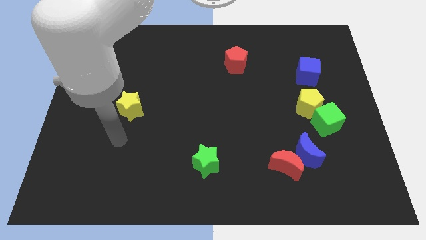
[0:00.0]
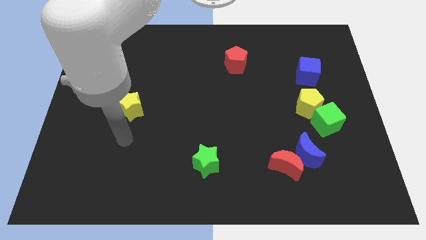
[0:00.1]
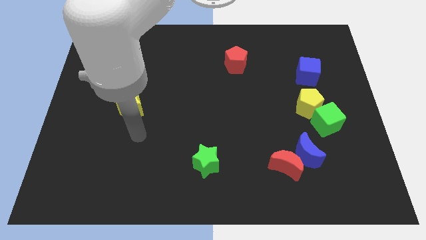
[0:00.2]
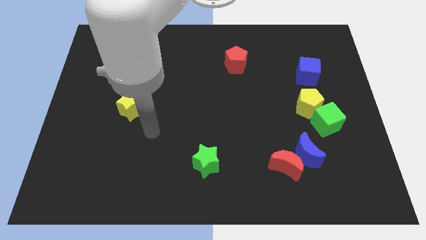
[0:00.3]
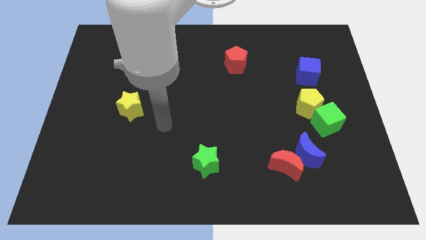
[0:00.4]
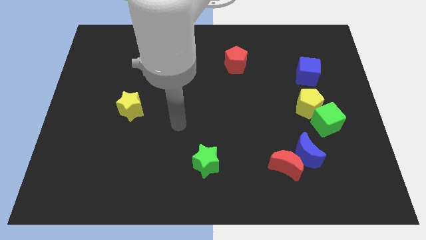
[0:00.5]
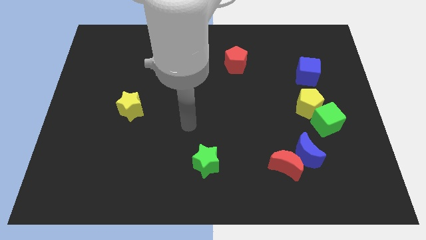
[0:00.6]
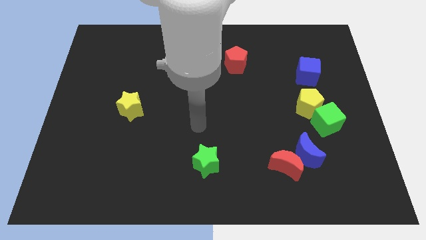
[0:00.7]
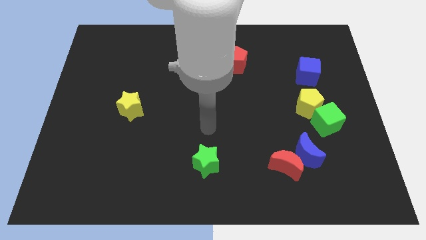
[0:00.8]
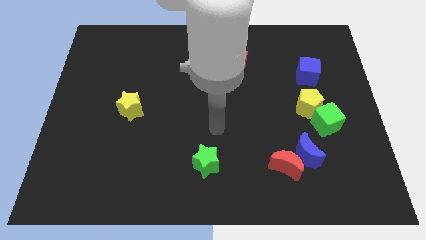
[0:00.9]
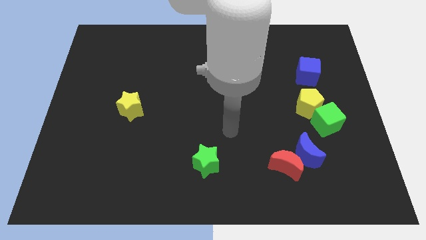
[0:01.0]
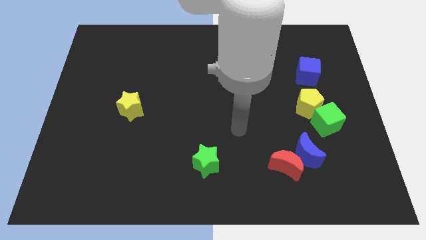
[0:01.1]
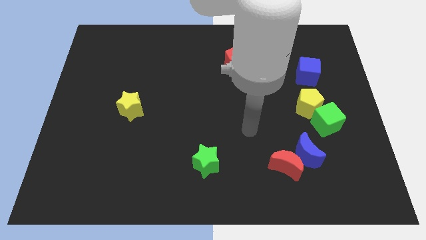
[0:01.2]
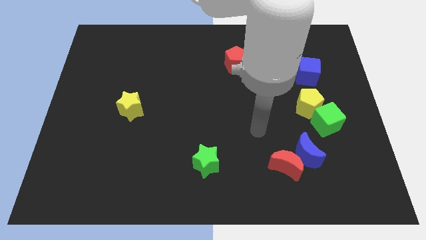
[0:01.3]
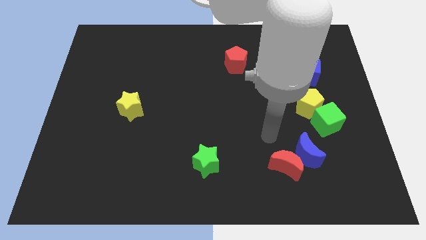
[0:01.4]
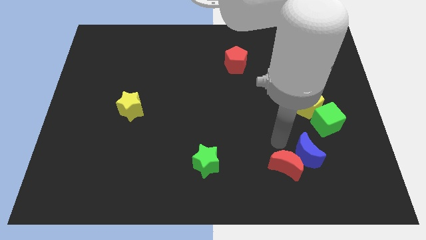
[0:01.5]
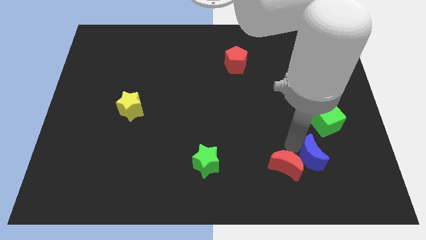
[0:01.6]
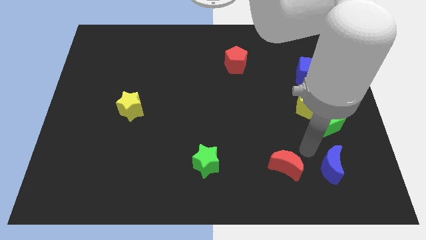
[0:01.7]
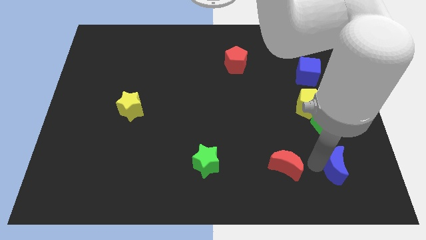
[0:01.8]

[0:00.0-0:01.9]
move the red moon away from the blue moon

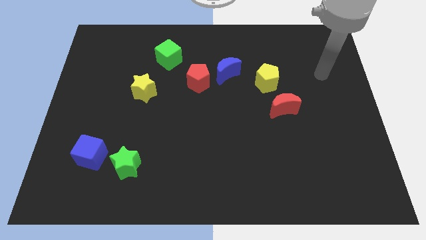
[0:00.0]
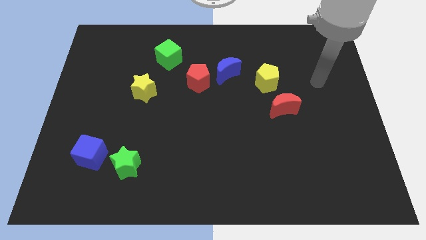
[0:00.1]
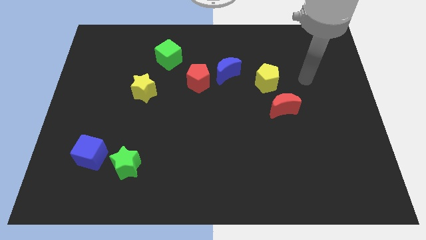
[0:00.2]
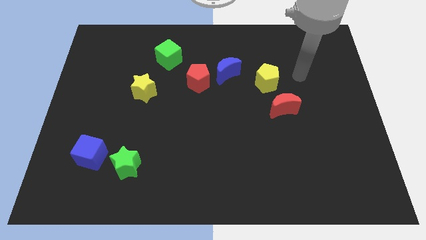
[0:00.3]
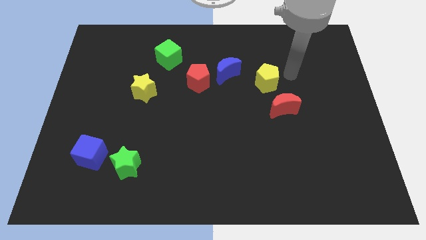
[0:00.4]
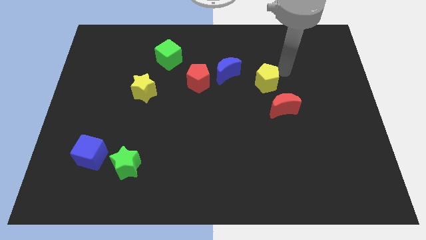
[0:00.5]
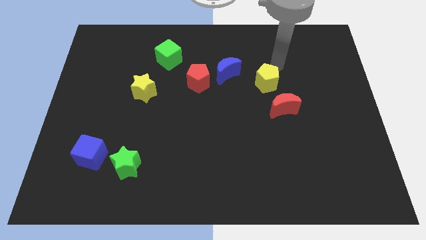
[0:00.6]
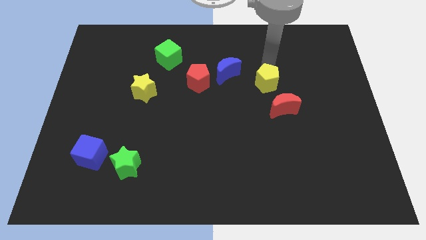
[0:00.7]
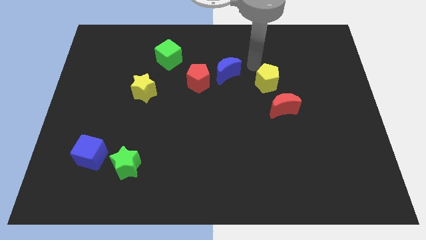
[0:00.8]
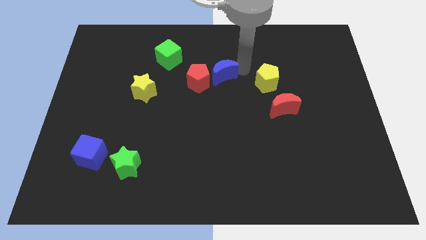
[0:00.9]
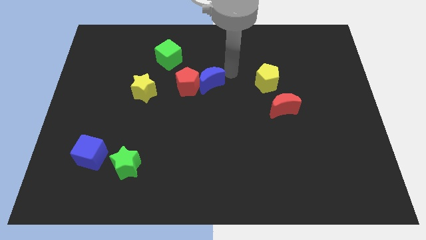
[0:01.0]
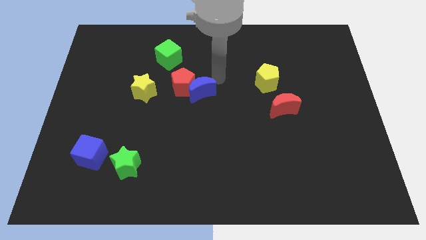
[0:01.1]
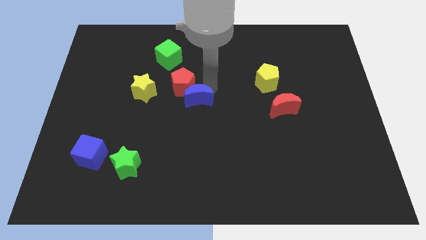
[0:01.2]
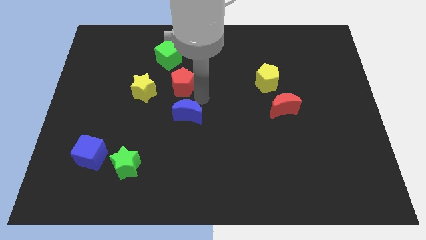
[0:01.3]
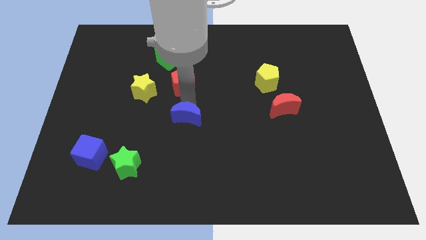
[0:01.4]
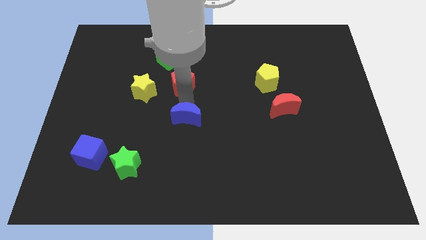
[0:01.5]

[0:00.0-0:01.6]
separate the red pentagon from the blue moon

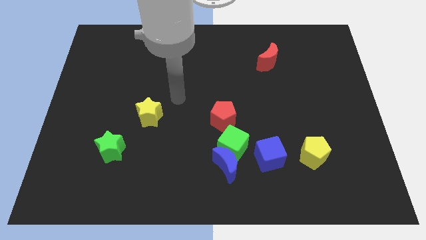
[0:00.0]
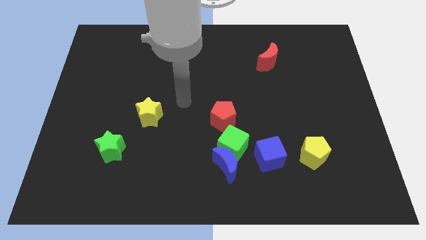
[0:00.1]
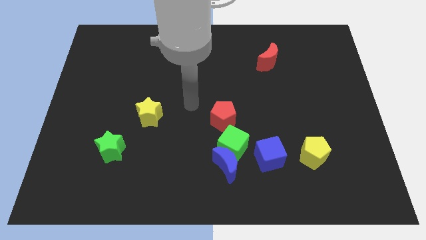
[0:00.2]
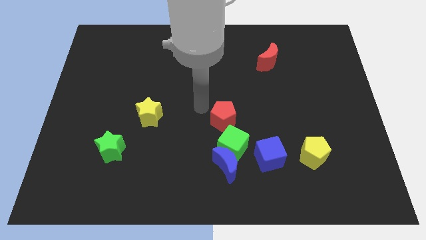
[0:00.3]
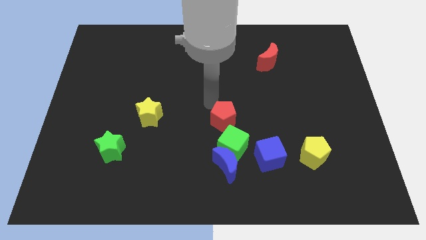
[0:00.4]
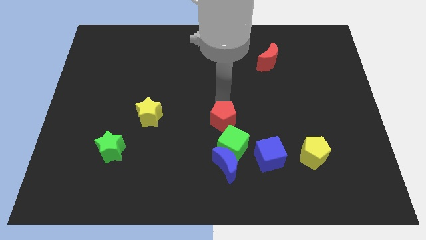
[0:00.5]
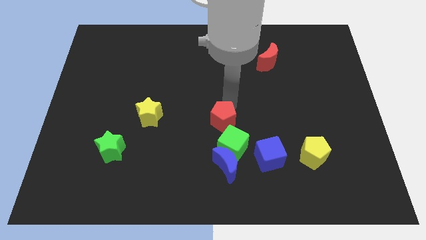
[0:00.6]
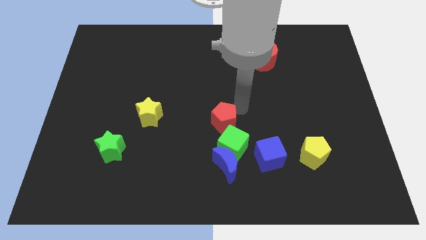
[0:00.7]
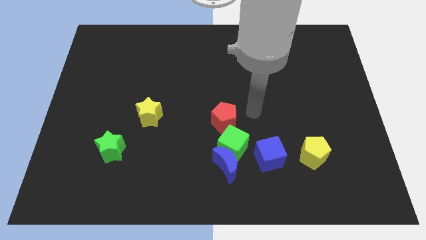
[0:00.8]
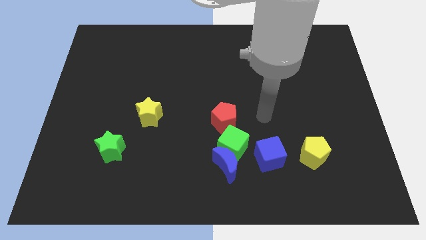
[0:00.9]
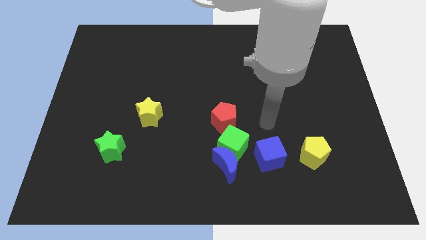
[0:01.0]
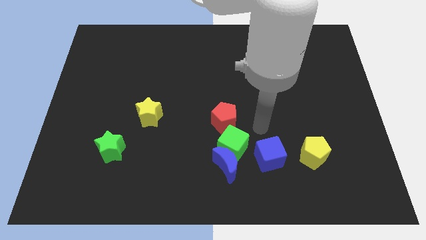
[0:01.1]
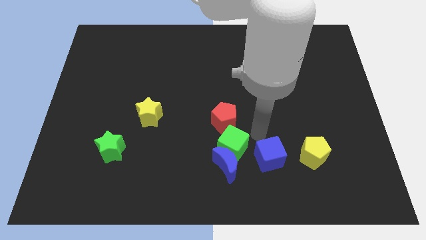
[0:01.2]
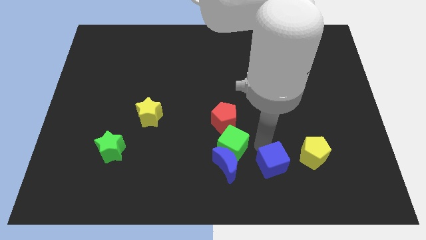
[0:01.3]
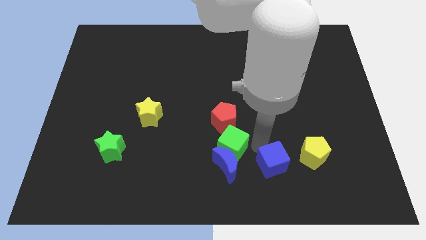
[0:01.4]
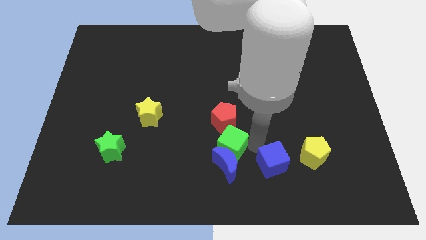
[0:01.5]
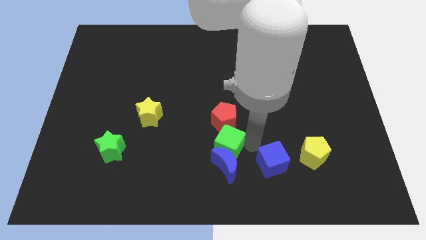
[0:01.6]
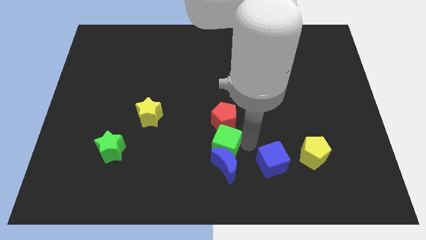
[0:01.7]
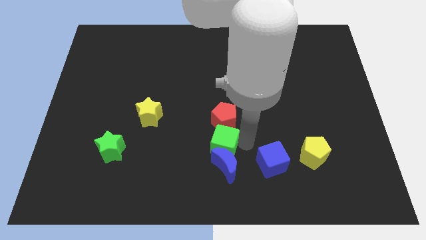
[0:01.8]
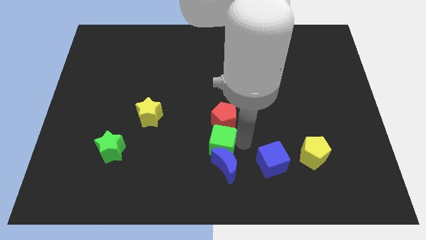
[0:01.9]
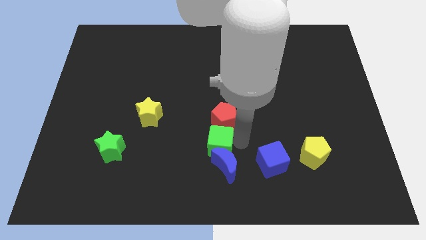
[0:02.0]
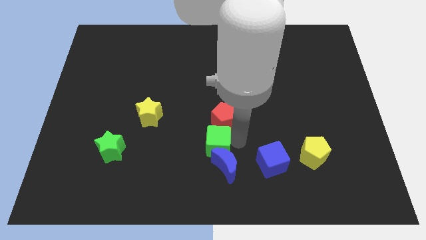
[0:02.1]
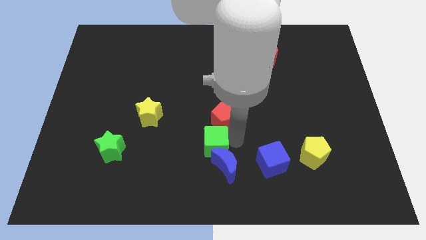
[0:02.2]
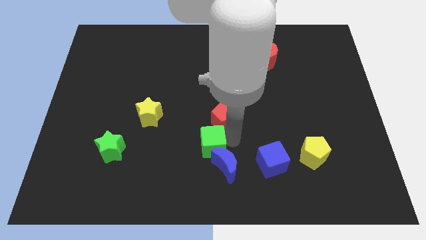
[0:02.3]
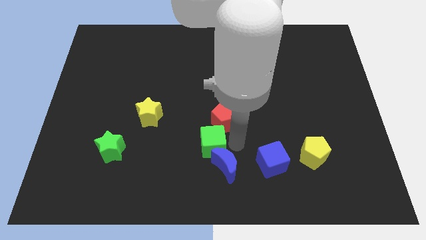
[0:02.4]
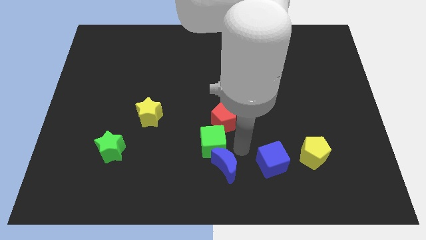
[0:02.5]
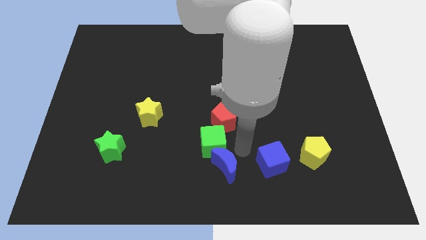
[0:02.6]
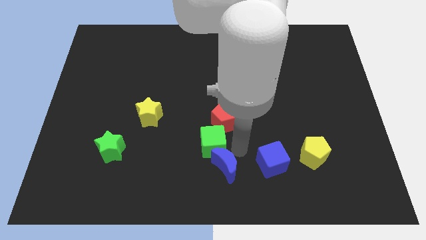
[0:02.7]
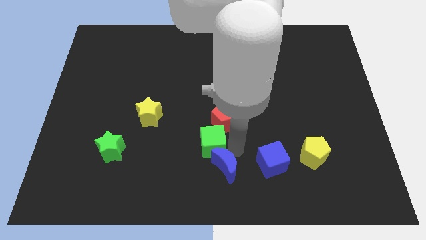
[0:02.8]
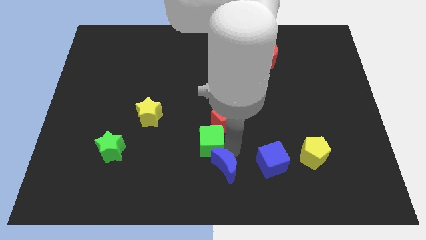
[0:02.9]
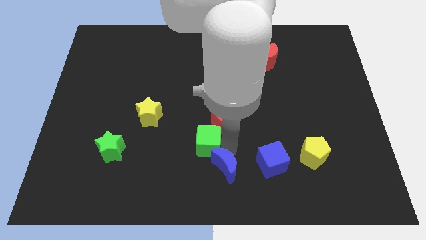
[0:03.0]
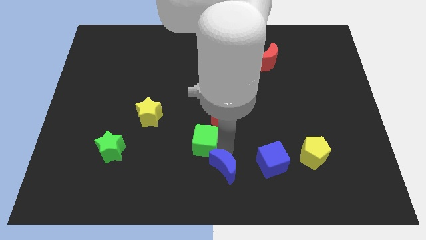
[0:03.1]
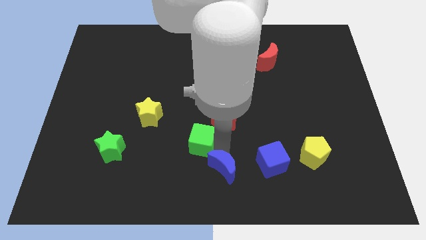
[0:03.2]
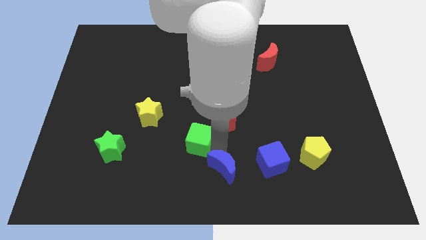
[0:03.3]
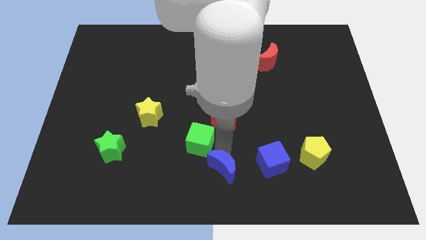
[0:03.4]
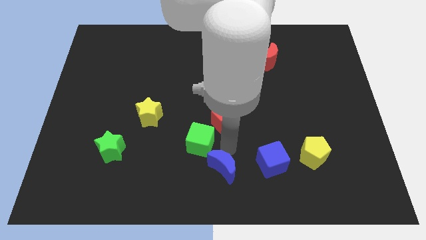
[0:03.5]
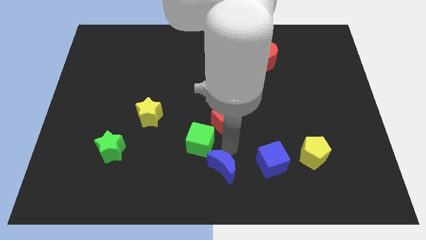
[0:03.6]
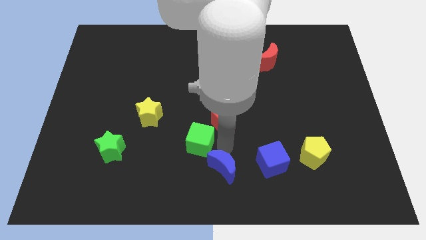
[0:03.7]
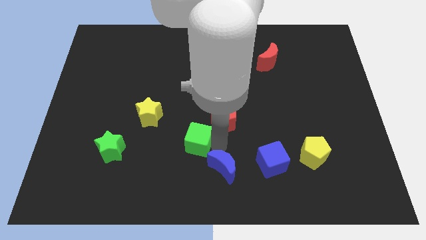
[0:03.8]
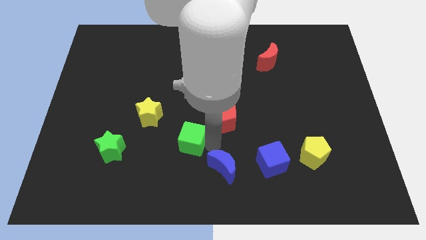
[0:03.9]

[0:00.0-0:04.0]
pull the green cube apart from the group of blocks

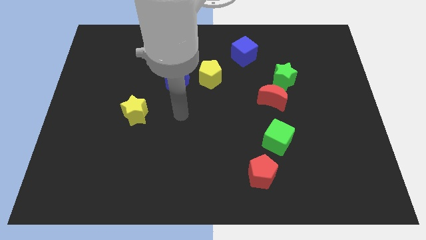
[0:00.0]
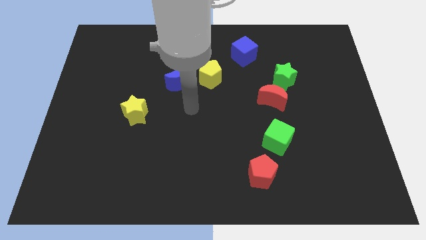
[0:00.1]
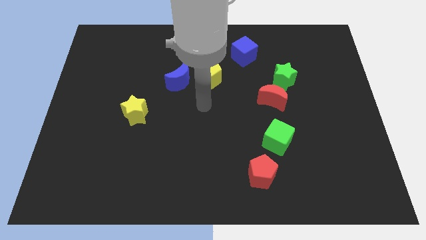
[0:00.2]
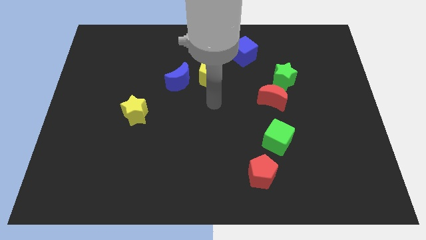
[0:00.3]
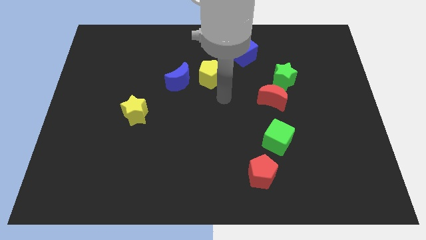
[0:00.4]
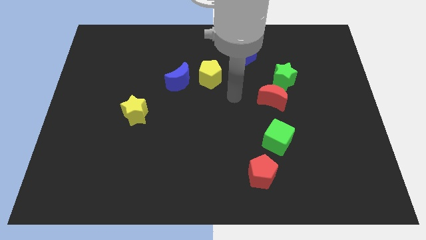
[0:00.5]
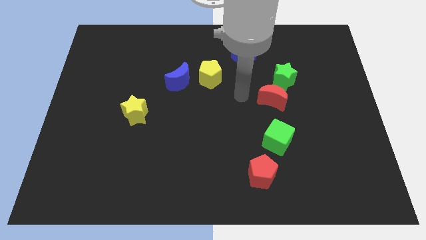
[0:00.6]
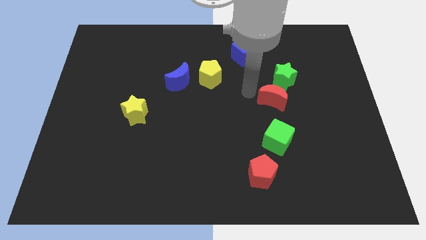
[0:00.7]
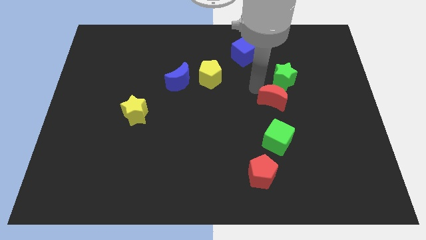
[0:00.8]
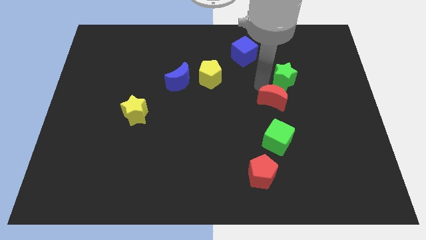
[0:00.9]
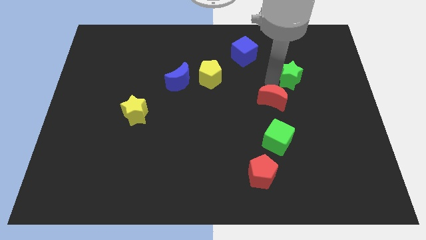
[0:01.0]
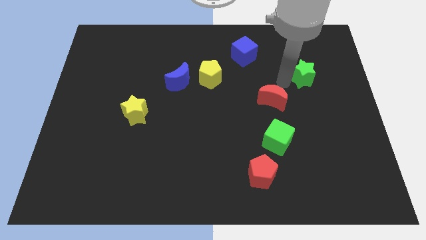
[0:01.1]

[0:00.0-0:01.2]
move the red moon away from the green star

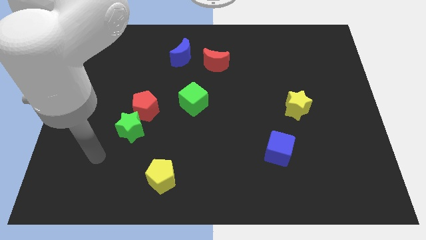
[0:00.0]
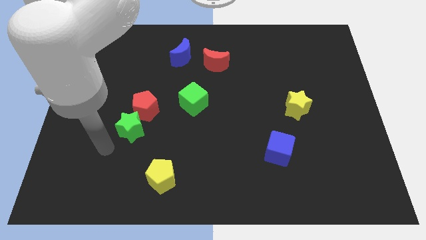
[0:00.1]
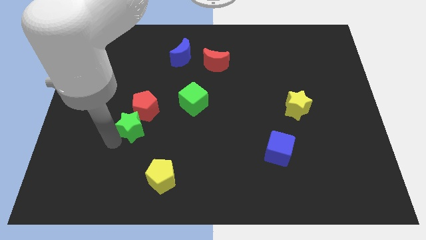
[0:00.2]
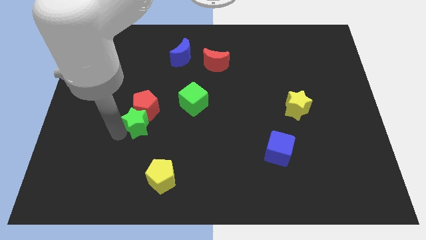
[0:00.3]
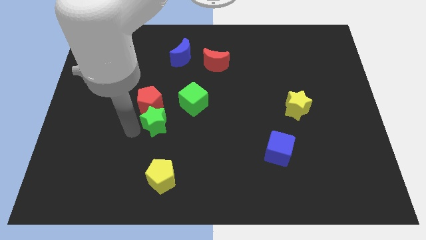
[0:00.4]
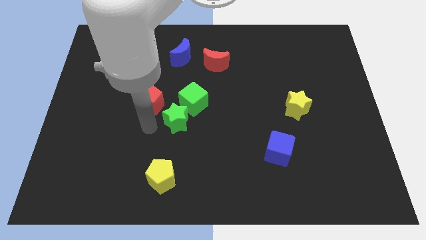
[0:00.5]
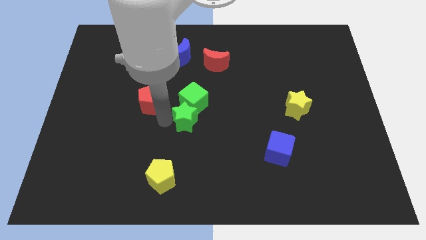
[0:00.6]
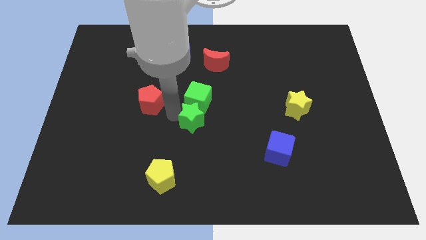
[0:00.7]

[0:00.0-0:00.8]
move the red pentagon away from the green star
